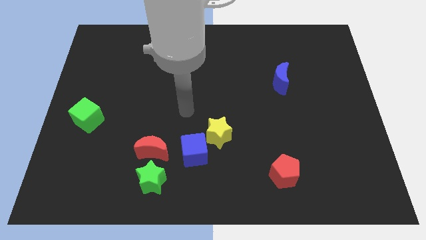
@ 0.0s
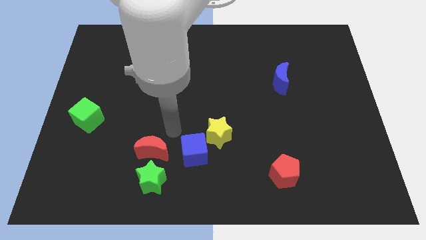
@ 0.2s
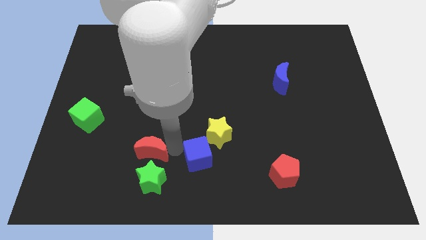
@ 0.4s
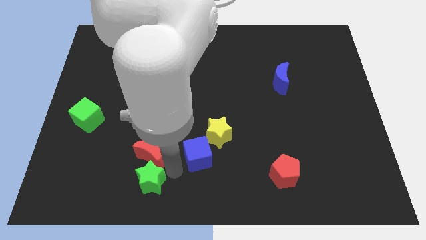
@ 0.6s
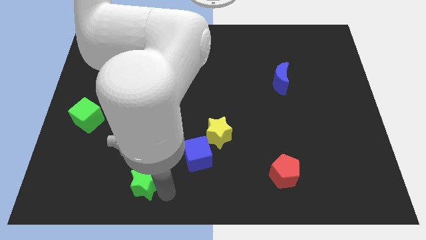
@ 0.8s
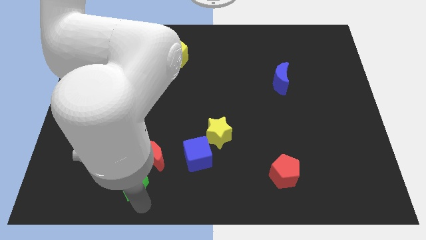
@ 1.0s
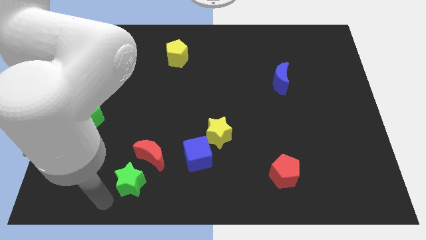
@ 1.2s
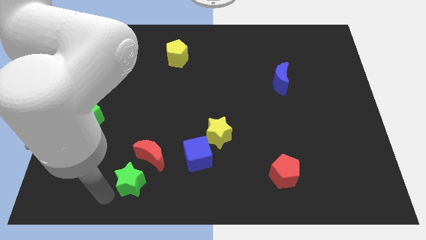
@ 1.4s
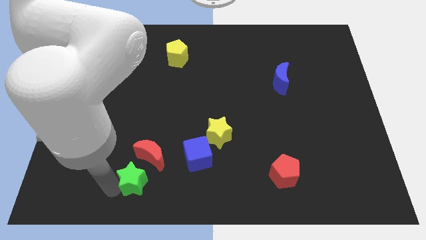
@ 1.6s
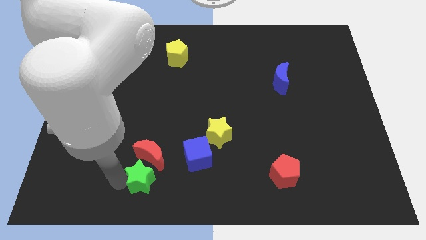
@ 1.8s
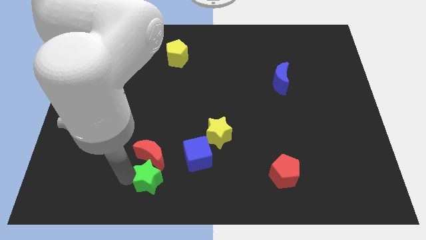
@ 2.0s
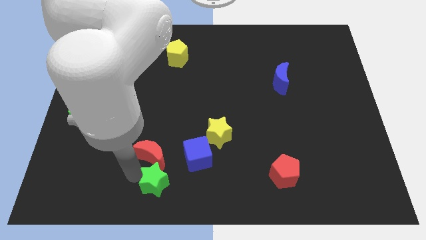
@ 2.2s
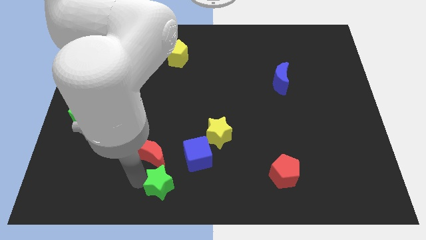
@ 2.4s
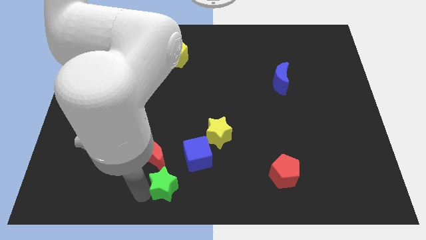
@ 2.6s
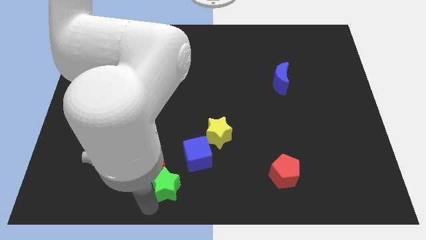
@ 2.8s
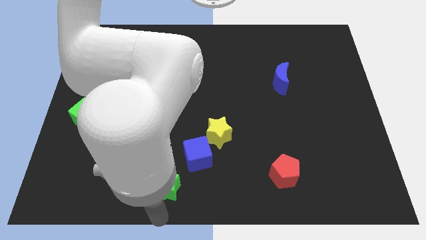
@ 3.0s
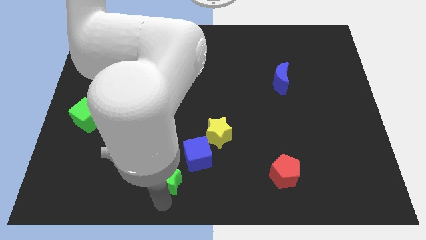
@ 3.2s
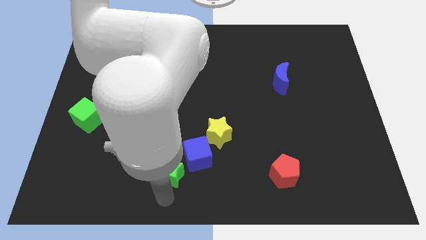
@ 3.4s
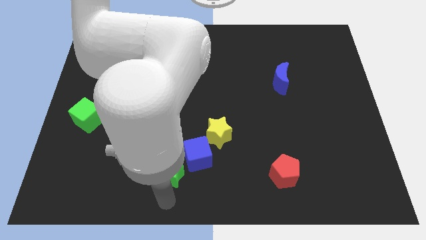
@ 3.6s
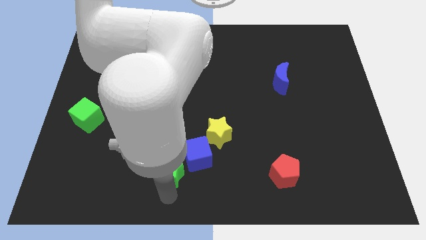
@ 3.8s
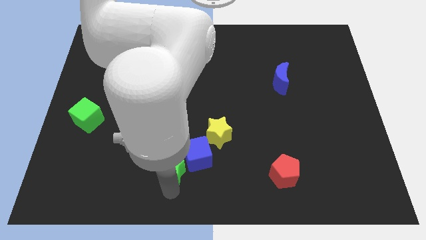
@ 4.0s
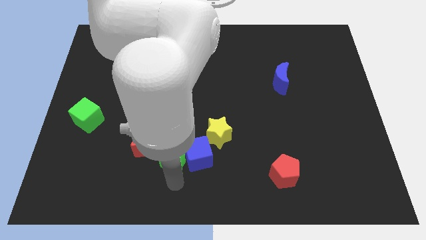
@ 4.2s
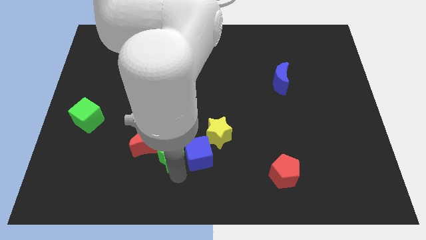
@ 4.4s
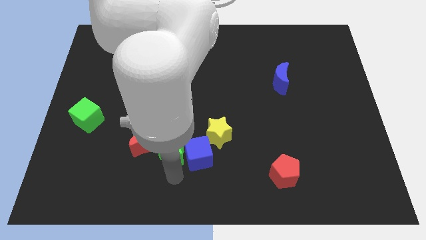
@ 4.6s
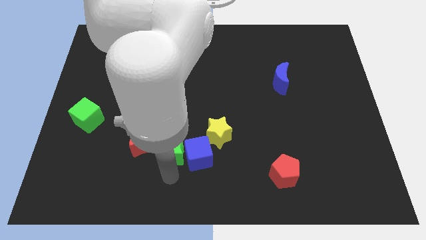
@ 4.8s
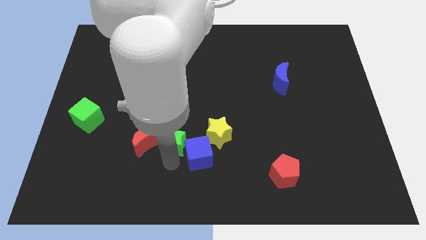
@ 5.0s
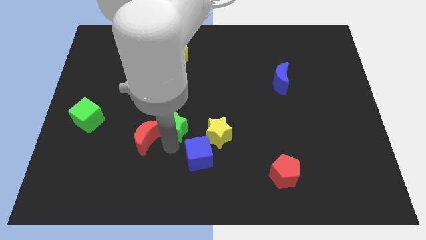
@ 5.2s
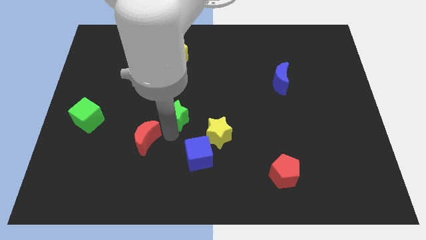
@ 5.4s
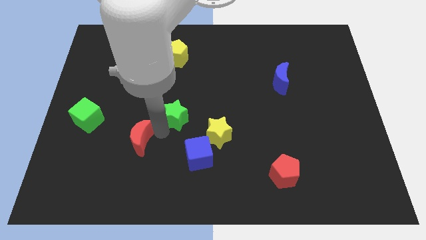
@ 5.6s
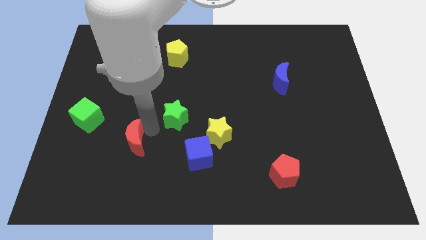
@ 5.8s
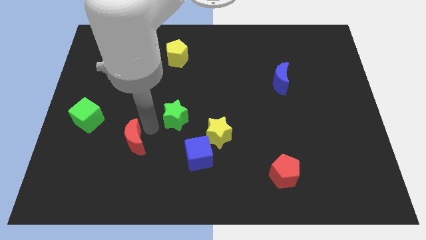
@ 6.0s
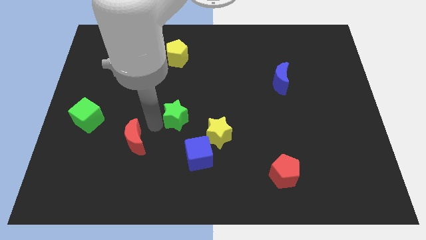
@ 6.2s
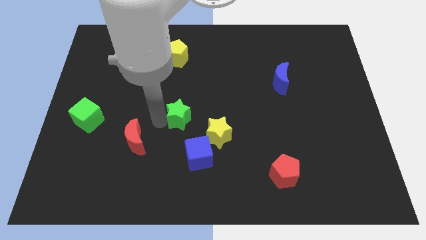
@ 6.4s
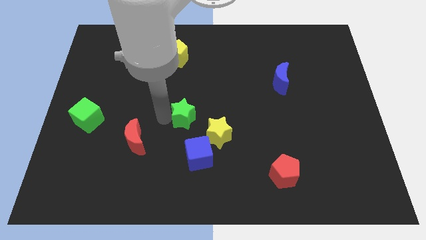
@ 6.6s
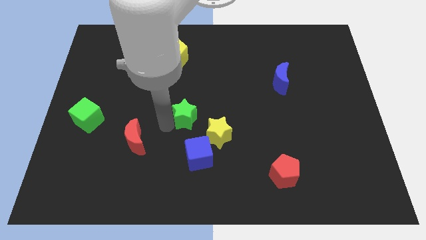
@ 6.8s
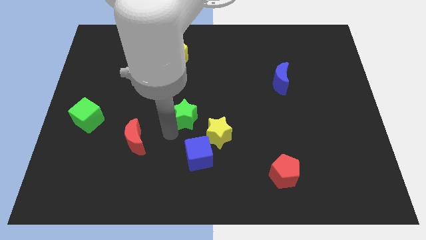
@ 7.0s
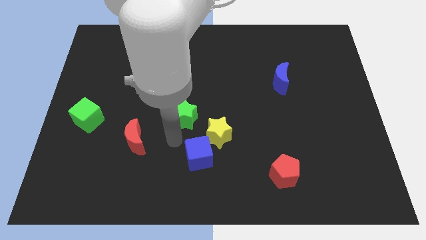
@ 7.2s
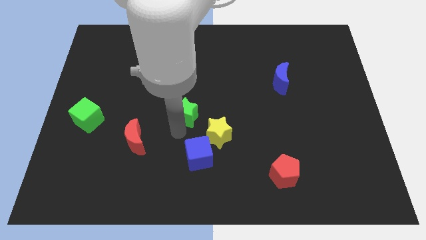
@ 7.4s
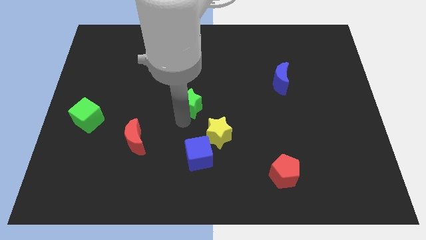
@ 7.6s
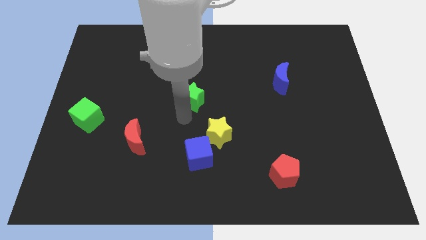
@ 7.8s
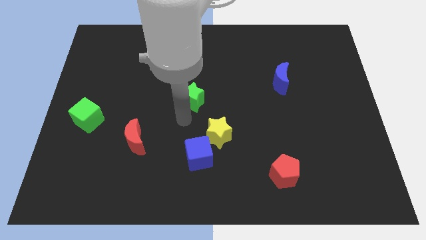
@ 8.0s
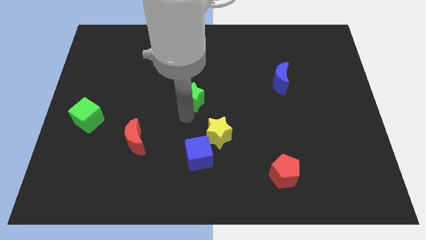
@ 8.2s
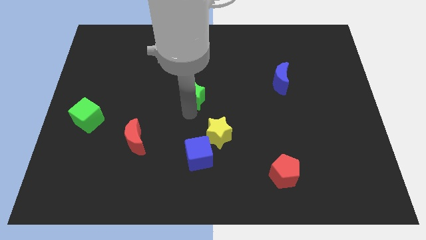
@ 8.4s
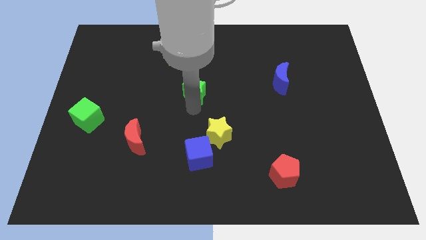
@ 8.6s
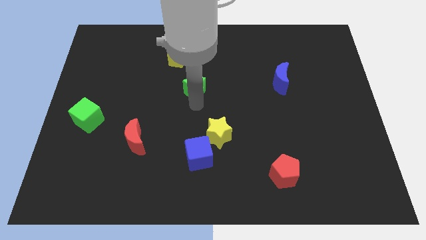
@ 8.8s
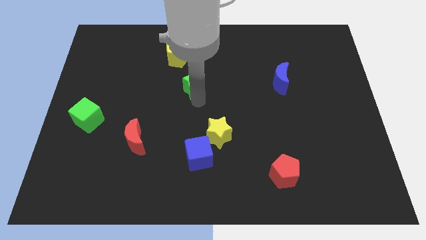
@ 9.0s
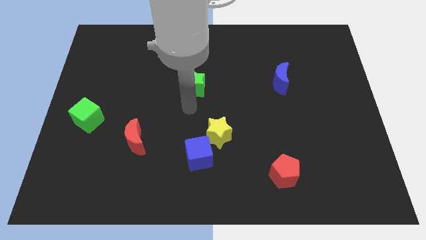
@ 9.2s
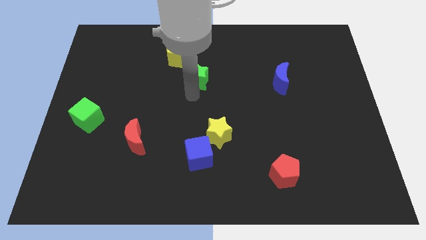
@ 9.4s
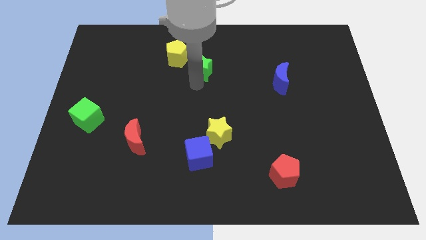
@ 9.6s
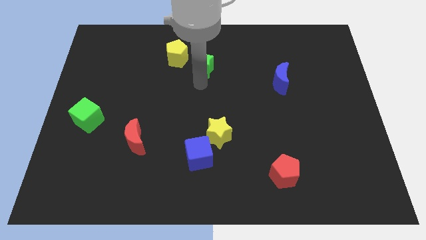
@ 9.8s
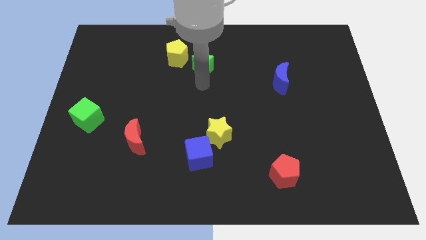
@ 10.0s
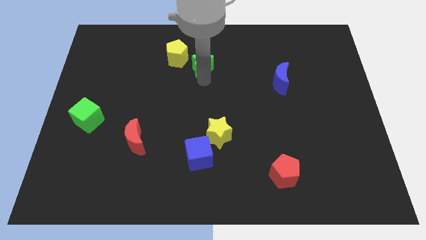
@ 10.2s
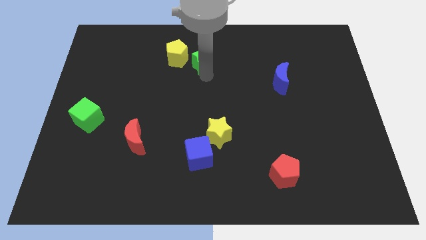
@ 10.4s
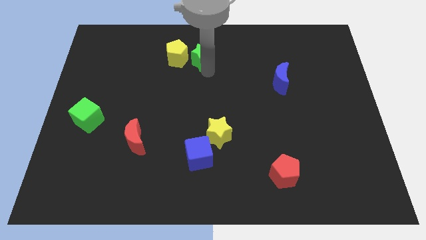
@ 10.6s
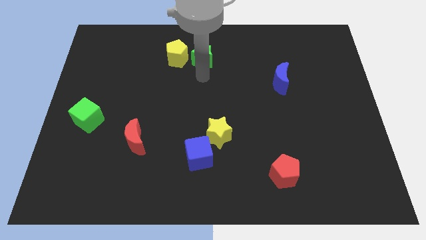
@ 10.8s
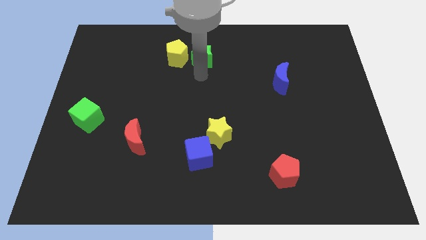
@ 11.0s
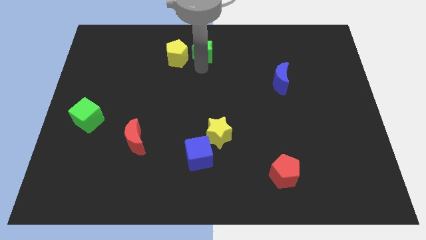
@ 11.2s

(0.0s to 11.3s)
put the green star to the top side
